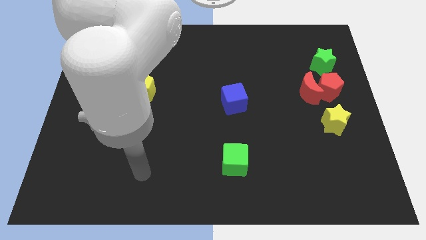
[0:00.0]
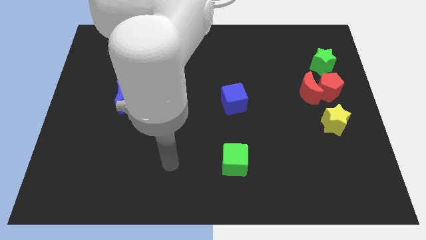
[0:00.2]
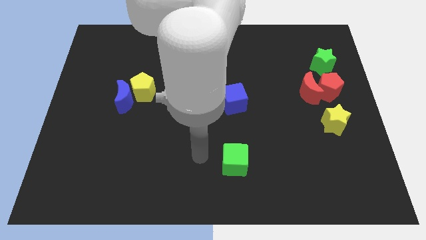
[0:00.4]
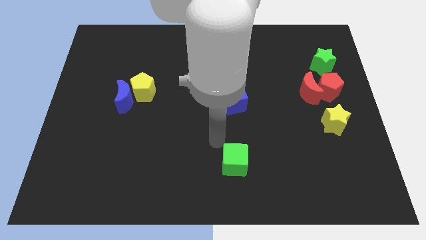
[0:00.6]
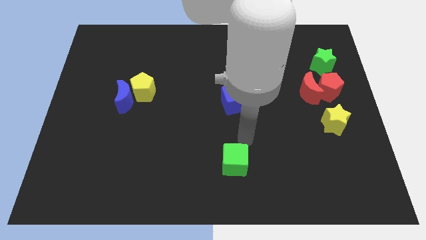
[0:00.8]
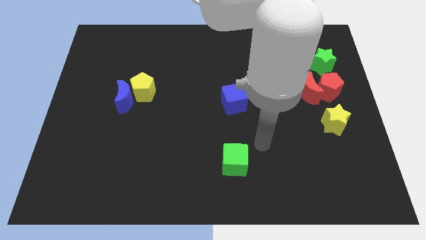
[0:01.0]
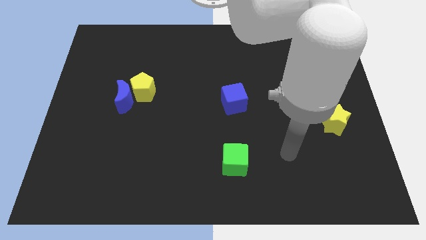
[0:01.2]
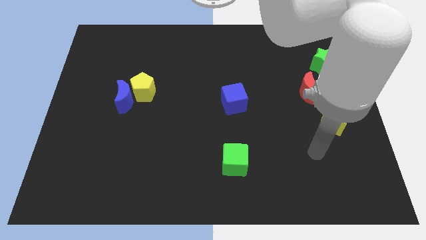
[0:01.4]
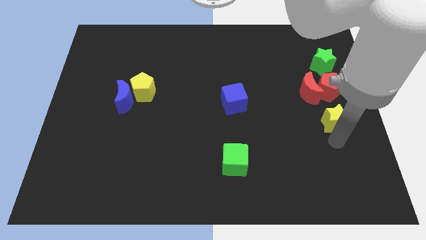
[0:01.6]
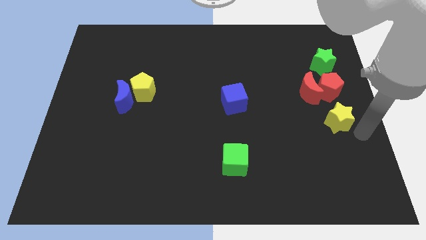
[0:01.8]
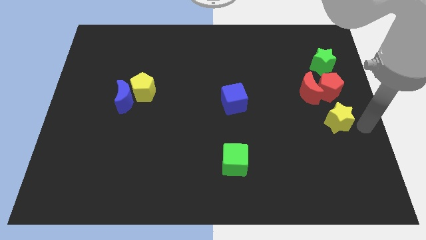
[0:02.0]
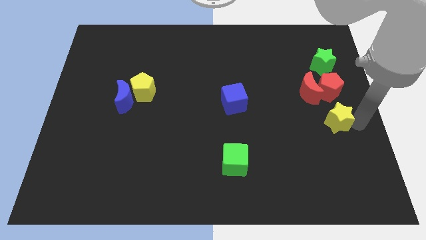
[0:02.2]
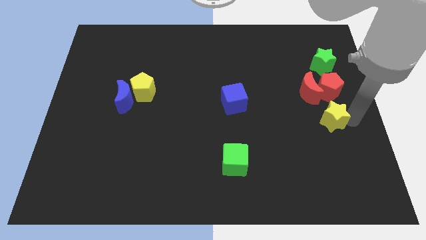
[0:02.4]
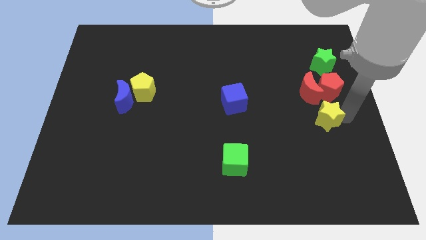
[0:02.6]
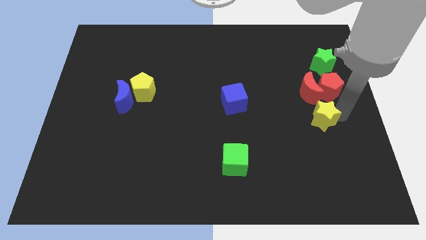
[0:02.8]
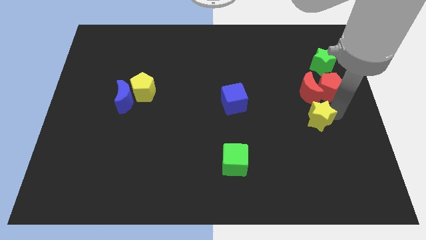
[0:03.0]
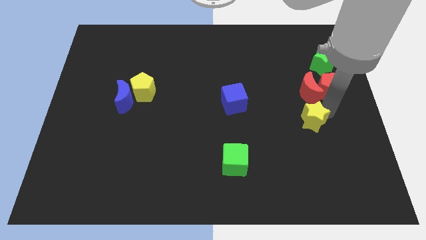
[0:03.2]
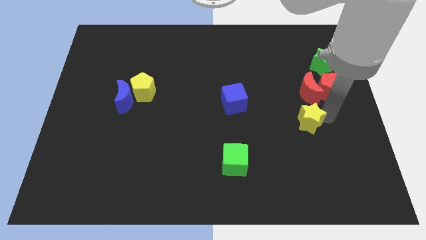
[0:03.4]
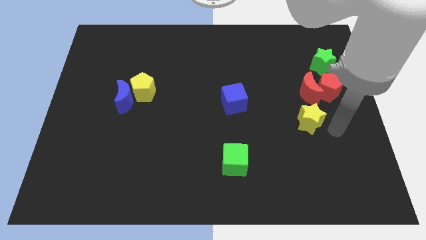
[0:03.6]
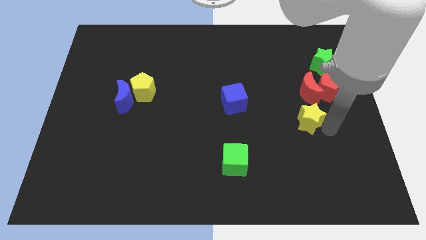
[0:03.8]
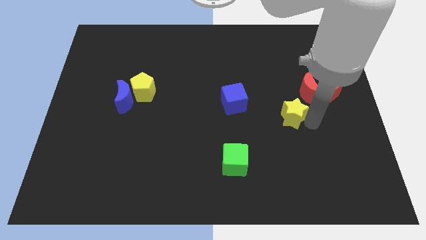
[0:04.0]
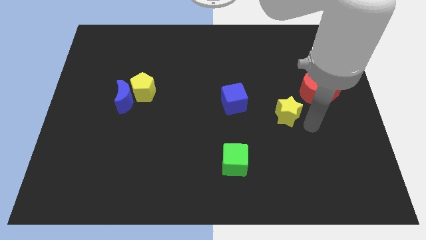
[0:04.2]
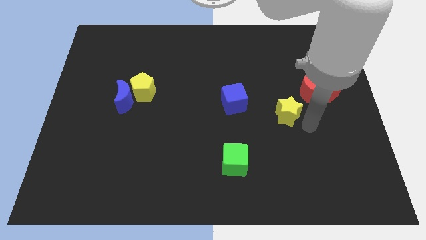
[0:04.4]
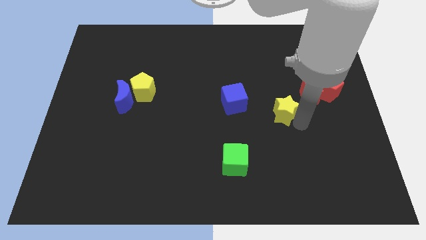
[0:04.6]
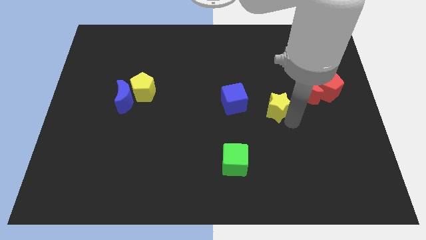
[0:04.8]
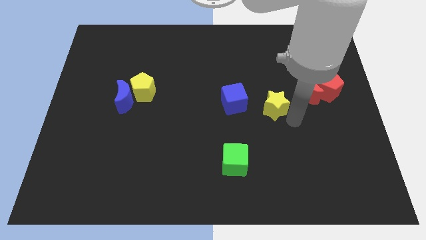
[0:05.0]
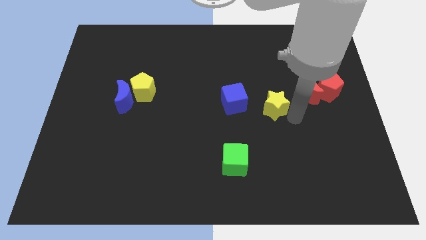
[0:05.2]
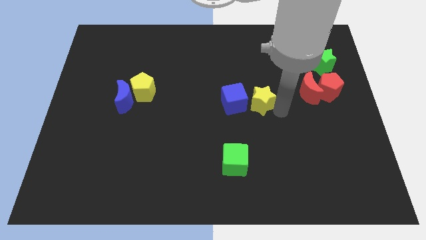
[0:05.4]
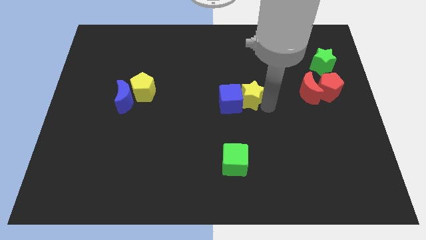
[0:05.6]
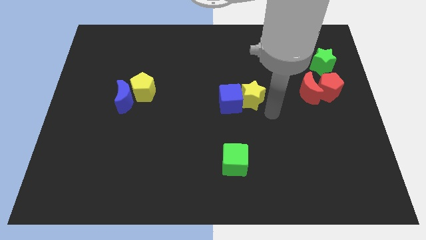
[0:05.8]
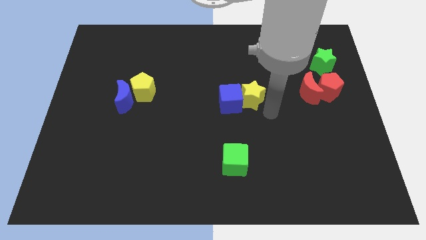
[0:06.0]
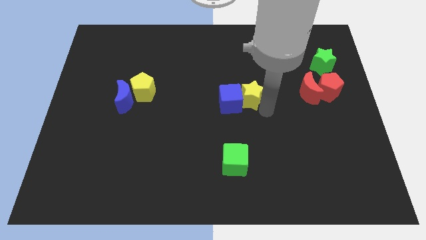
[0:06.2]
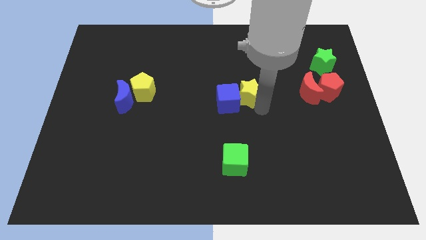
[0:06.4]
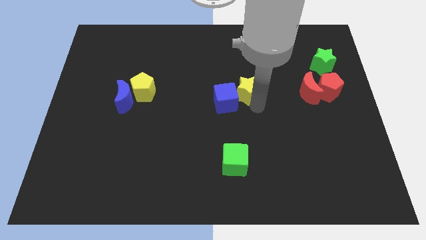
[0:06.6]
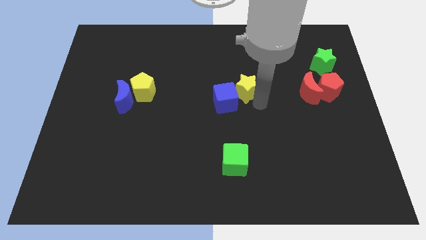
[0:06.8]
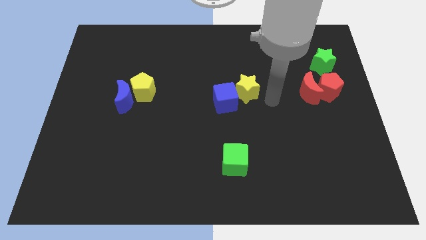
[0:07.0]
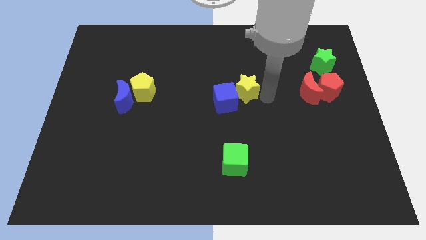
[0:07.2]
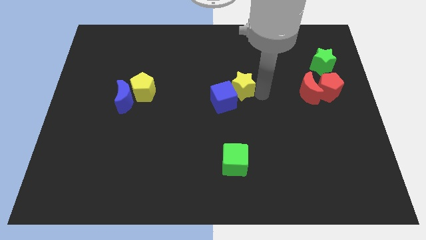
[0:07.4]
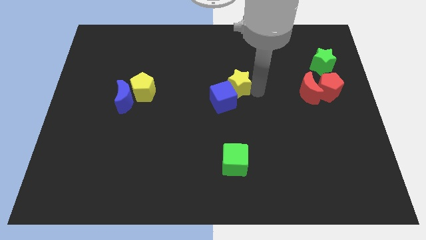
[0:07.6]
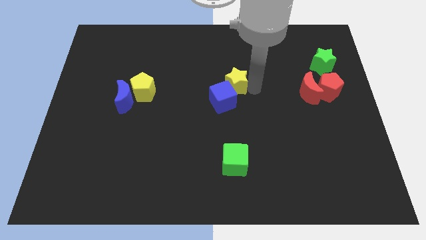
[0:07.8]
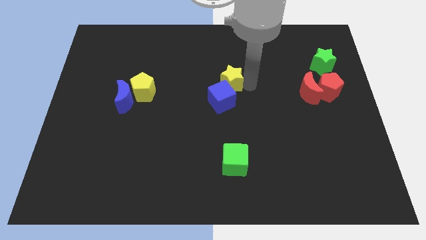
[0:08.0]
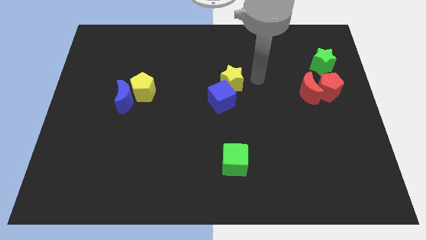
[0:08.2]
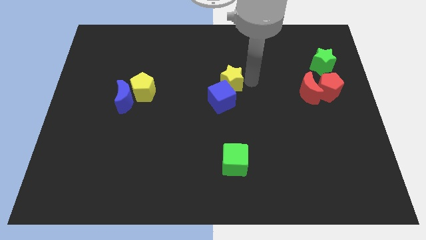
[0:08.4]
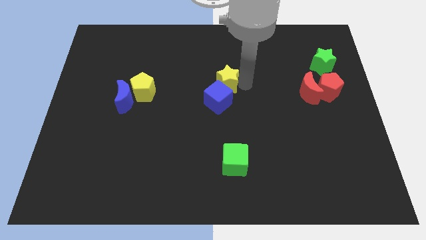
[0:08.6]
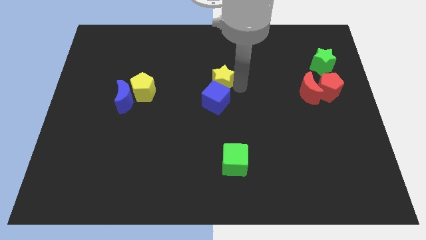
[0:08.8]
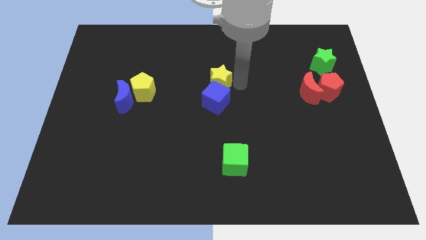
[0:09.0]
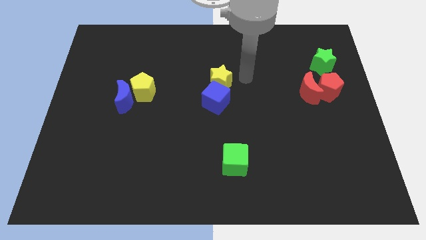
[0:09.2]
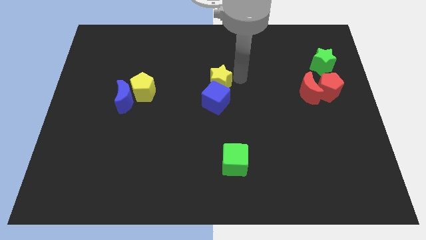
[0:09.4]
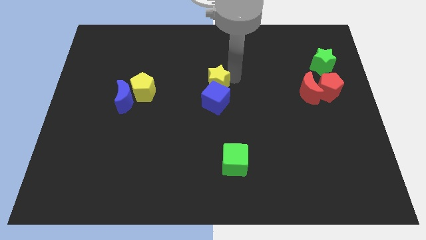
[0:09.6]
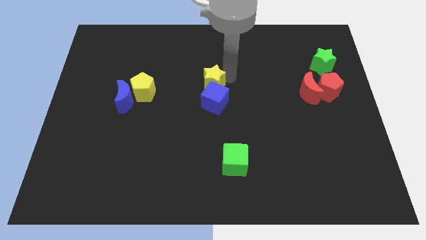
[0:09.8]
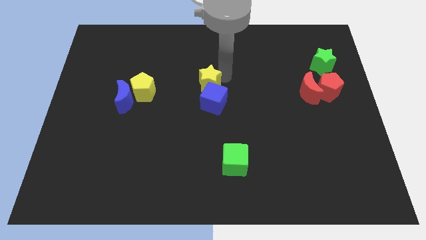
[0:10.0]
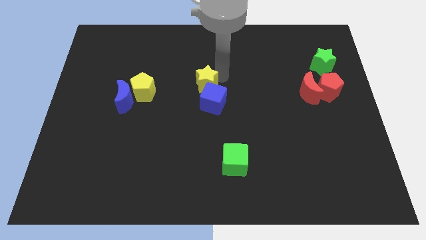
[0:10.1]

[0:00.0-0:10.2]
slide the yellow star to the right side of the yellow pentagon

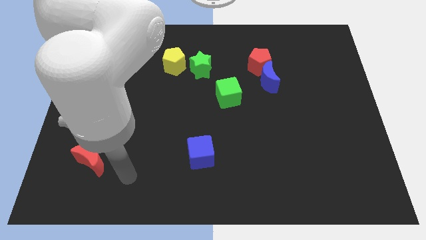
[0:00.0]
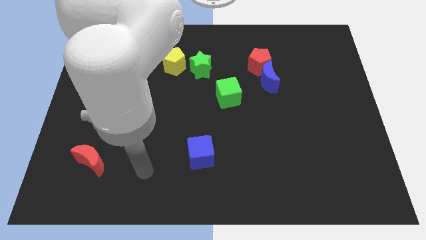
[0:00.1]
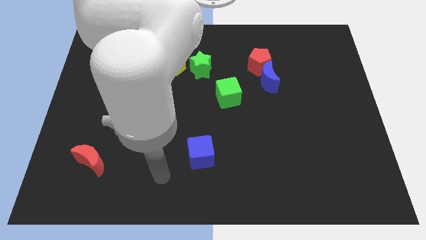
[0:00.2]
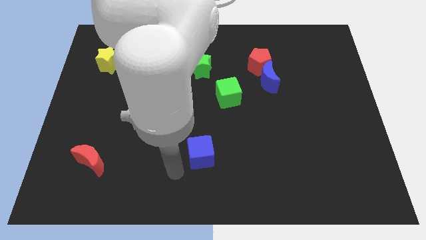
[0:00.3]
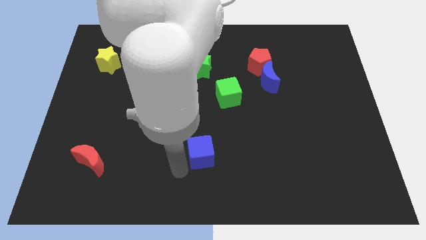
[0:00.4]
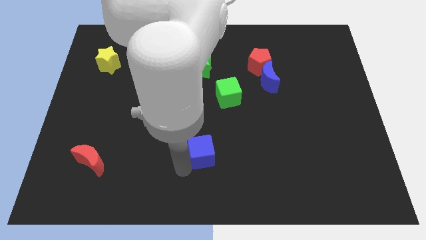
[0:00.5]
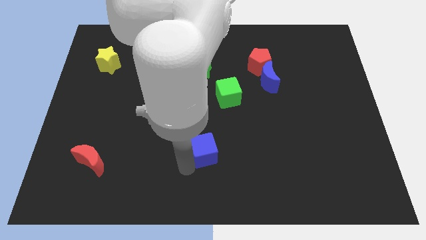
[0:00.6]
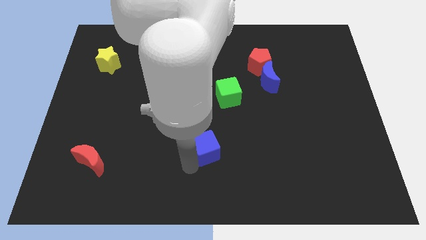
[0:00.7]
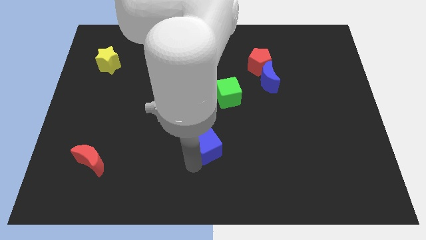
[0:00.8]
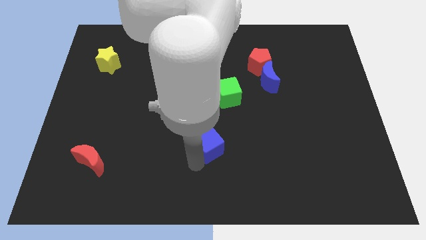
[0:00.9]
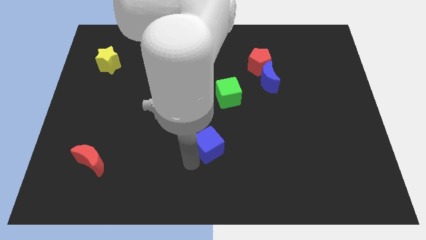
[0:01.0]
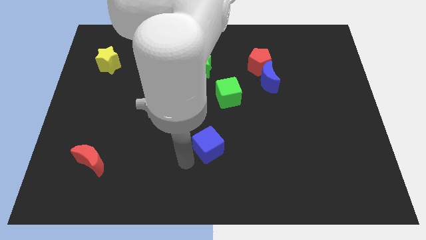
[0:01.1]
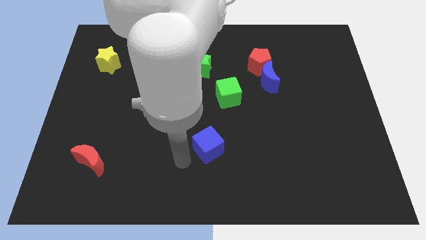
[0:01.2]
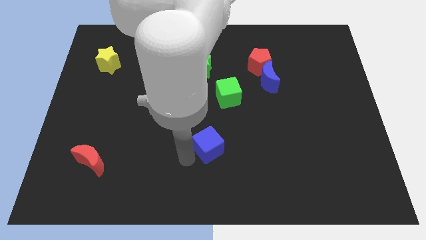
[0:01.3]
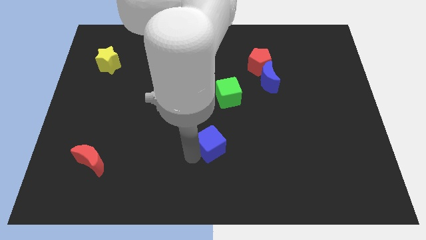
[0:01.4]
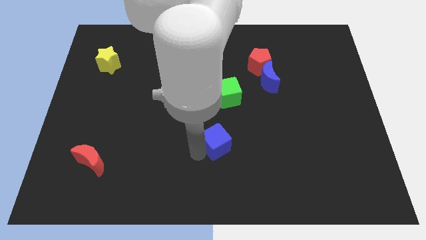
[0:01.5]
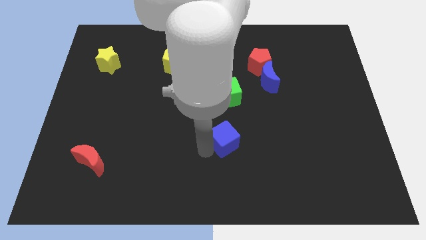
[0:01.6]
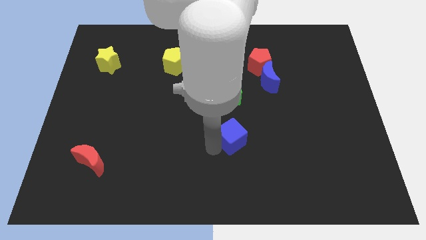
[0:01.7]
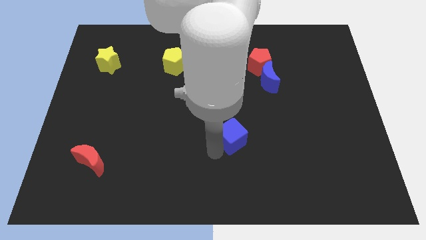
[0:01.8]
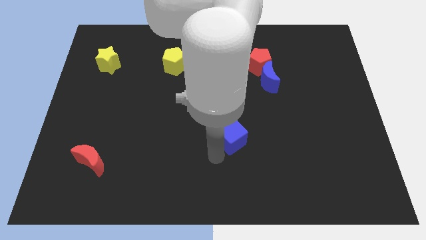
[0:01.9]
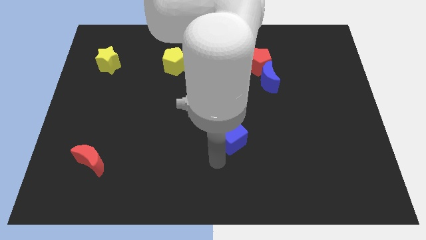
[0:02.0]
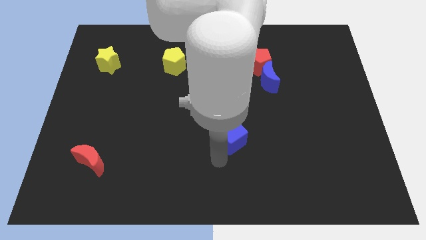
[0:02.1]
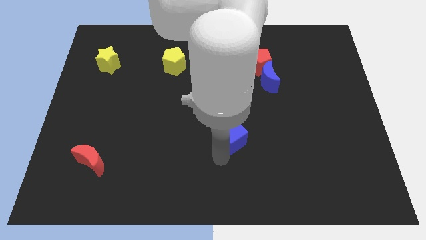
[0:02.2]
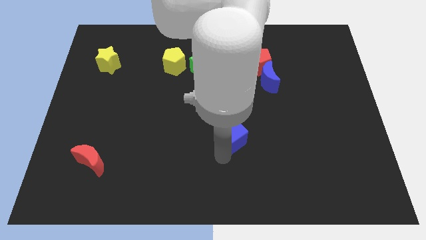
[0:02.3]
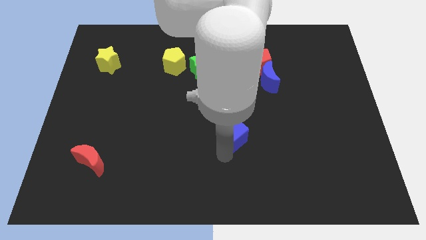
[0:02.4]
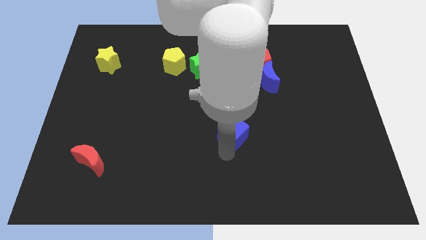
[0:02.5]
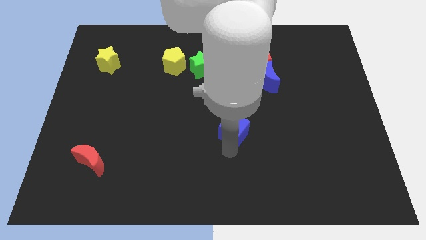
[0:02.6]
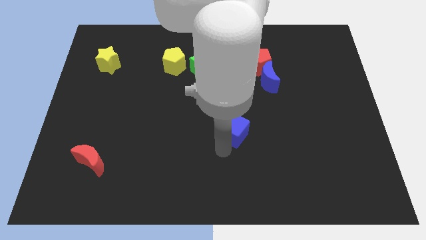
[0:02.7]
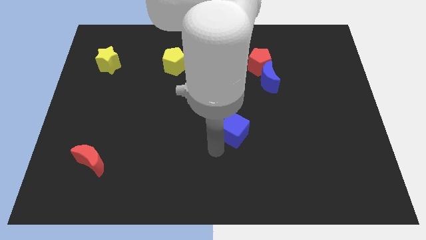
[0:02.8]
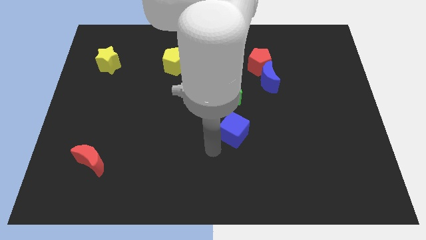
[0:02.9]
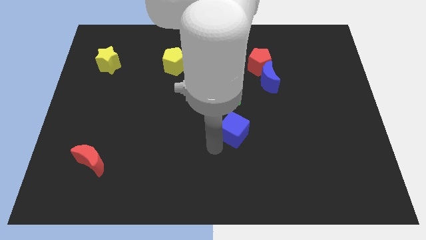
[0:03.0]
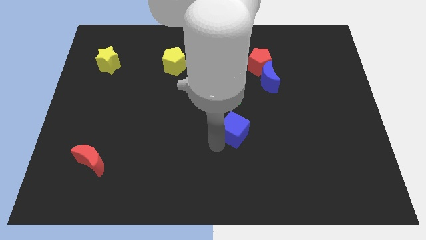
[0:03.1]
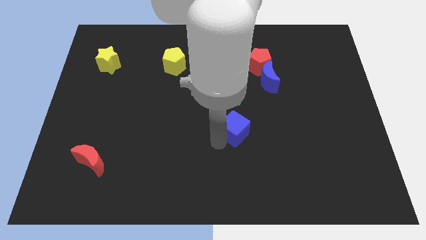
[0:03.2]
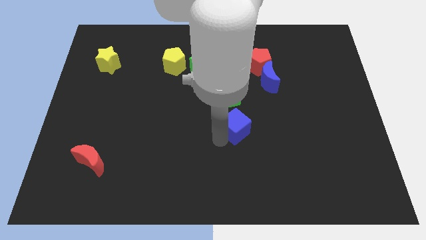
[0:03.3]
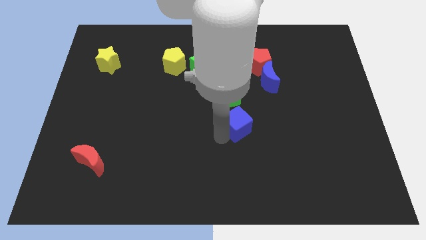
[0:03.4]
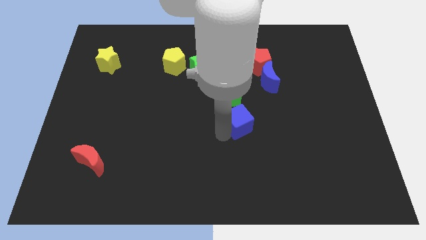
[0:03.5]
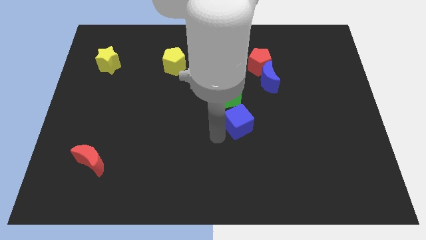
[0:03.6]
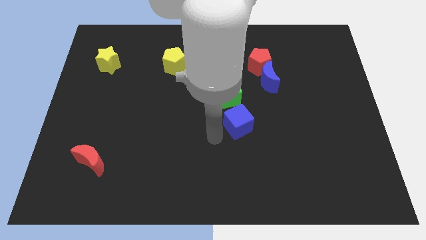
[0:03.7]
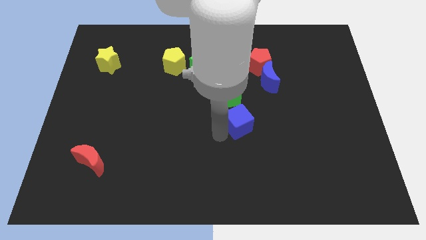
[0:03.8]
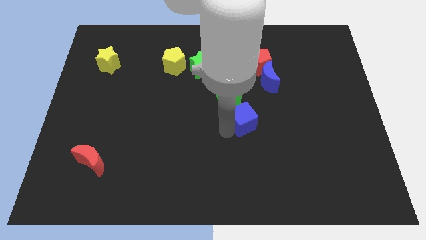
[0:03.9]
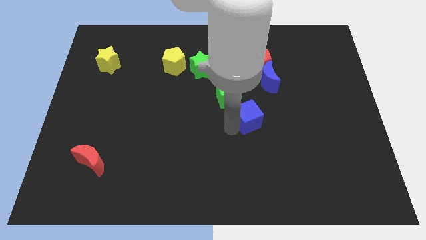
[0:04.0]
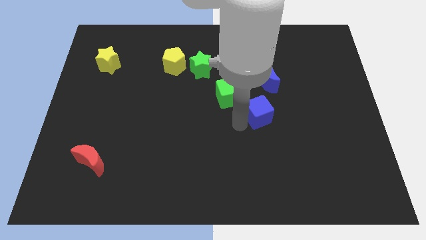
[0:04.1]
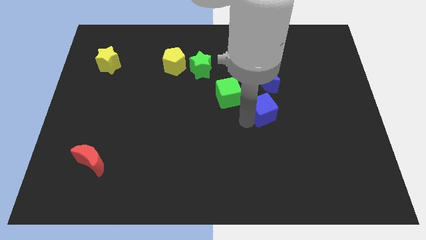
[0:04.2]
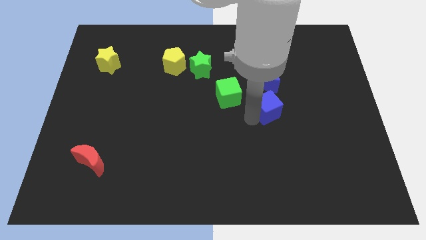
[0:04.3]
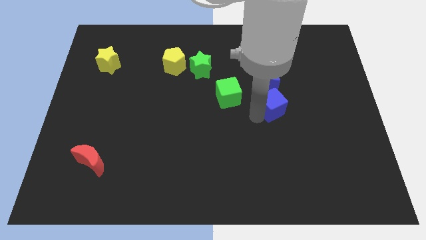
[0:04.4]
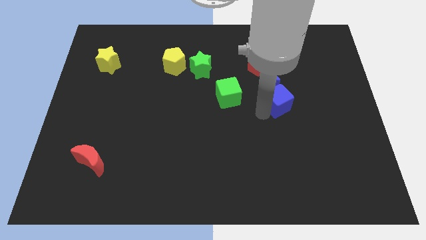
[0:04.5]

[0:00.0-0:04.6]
move the blue cube diagonally down and to the right of the blue moon
